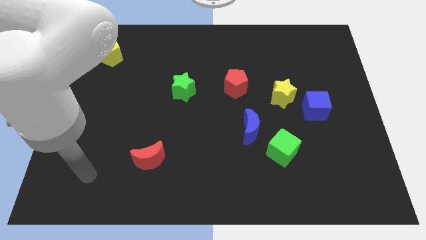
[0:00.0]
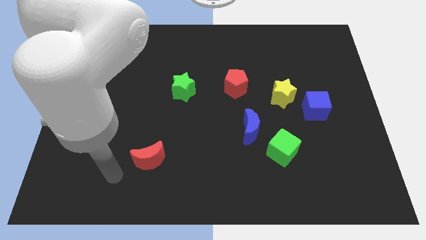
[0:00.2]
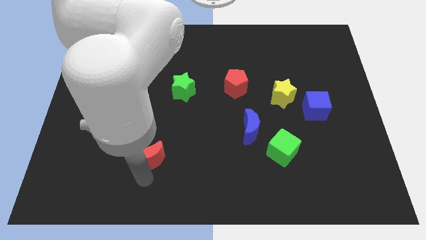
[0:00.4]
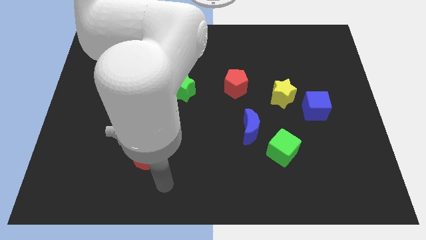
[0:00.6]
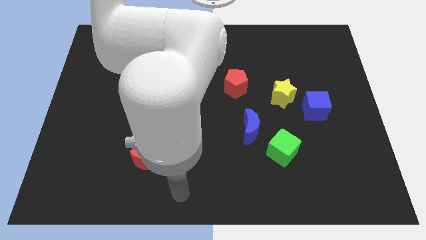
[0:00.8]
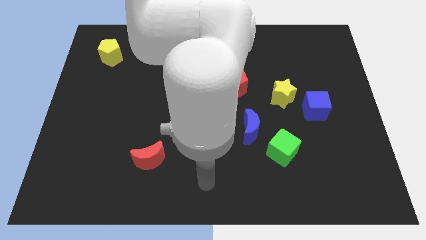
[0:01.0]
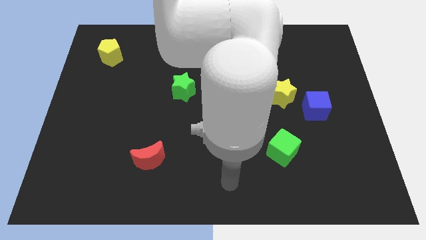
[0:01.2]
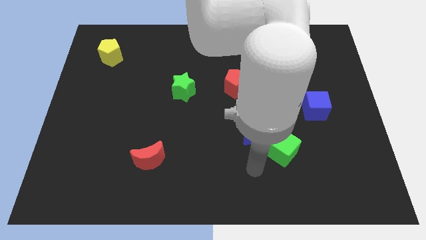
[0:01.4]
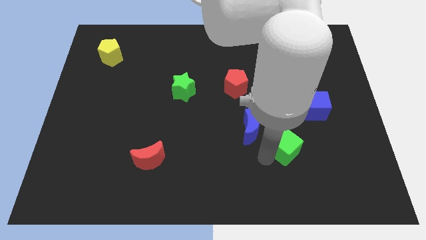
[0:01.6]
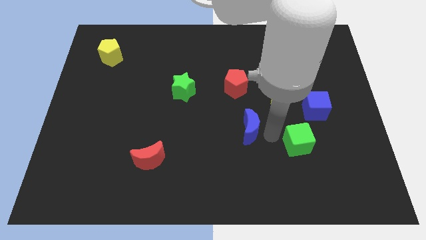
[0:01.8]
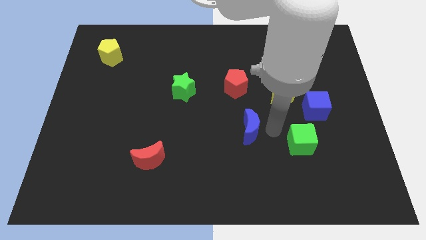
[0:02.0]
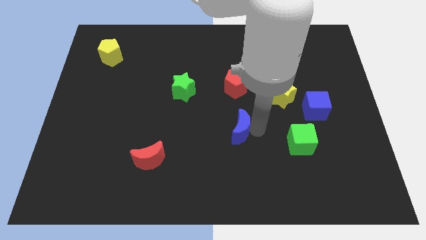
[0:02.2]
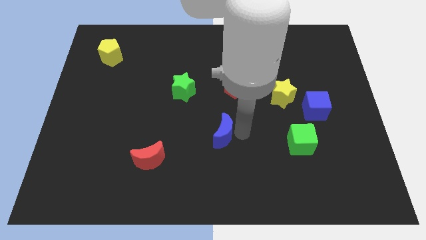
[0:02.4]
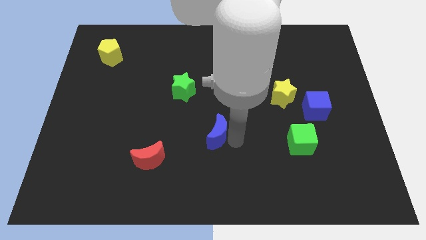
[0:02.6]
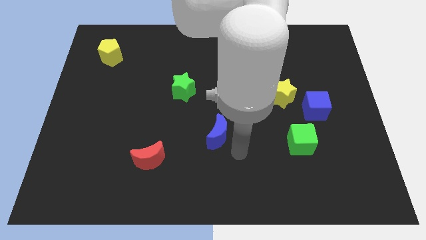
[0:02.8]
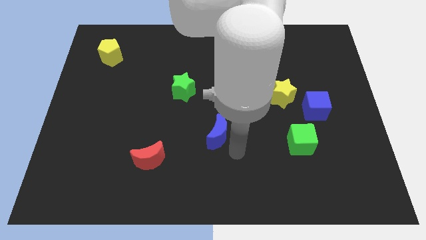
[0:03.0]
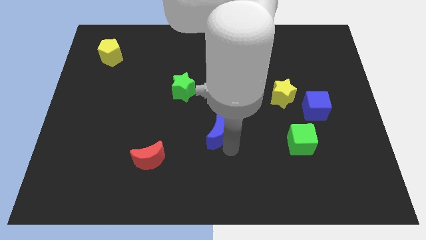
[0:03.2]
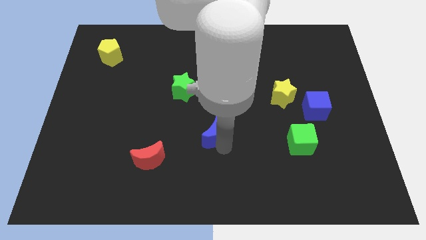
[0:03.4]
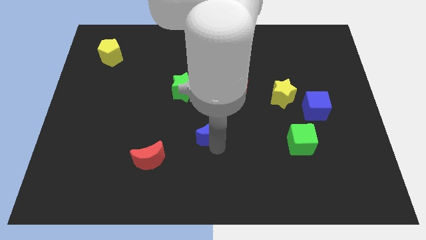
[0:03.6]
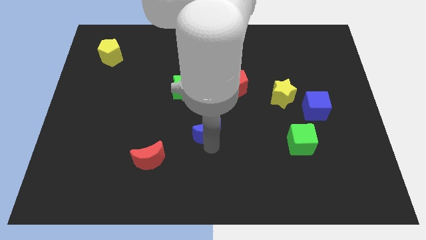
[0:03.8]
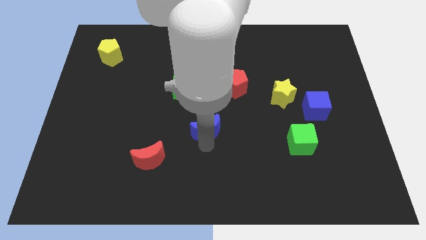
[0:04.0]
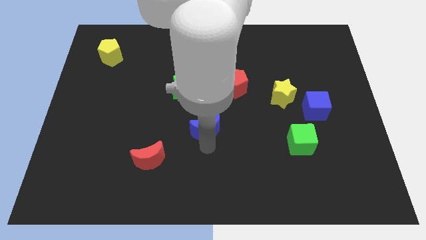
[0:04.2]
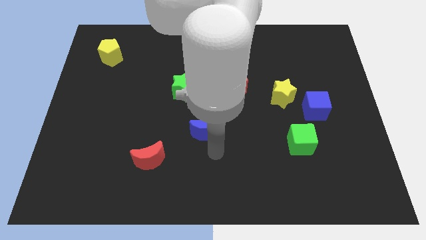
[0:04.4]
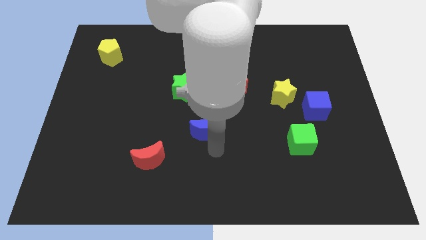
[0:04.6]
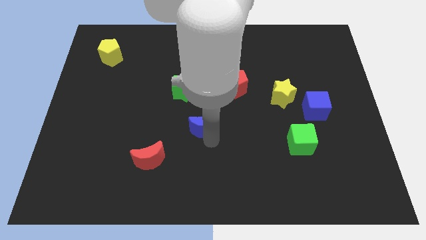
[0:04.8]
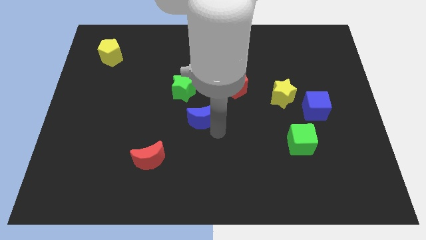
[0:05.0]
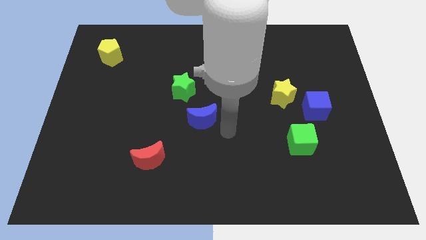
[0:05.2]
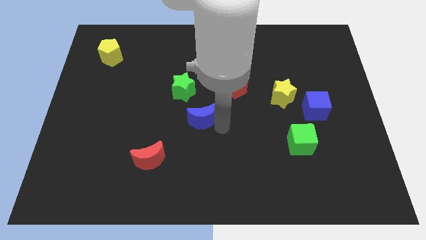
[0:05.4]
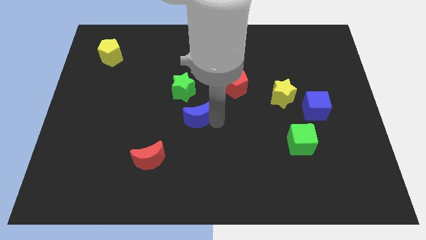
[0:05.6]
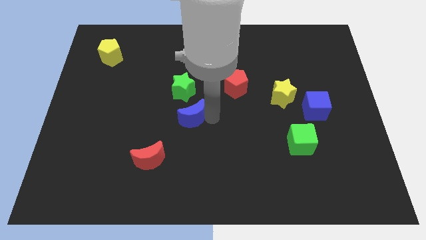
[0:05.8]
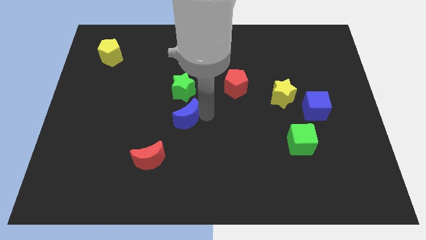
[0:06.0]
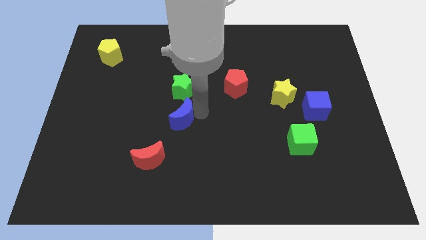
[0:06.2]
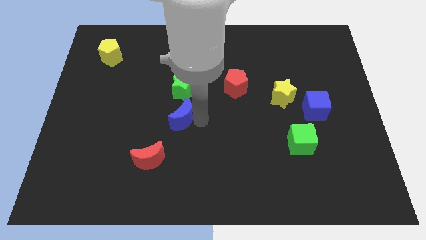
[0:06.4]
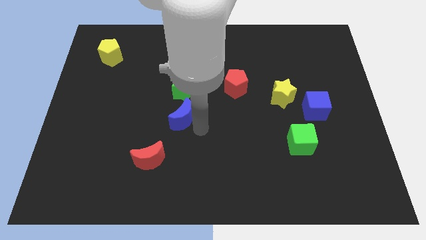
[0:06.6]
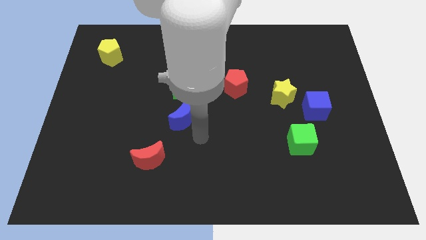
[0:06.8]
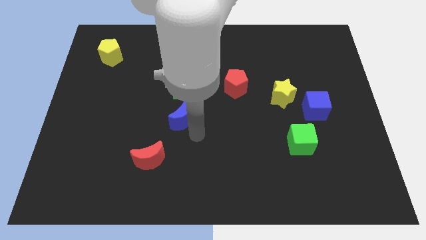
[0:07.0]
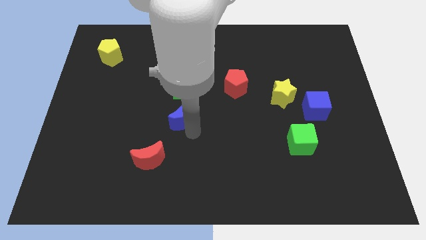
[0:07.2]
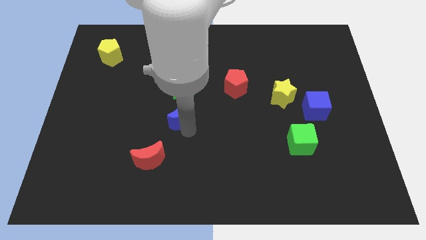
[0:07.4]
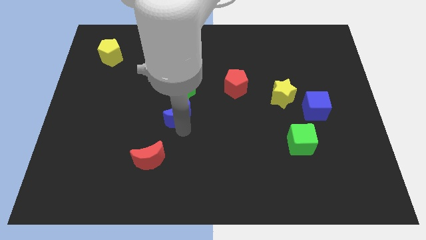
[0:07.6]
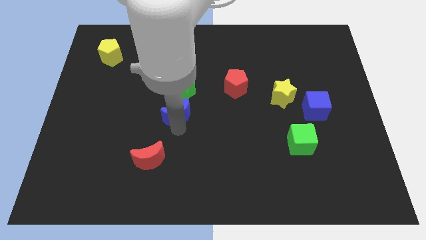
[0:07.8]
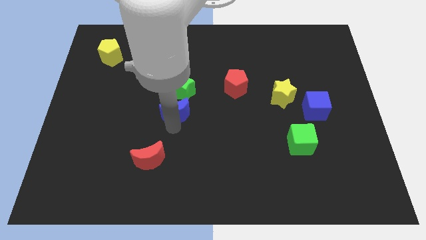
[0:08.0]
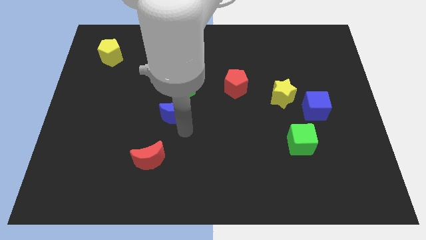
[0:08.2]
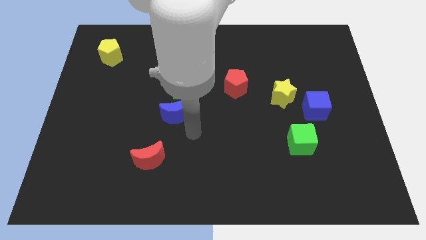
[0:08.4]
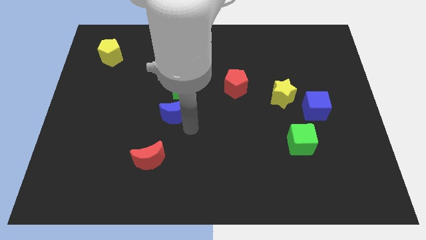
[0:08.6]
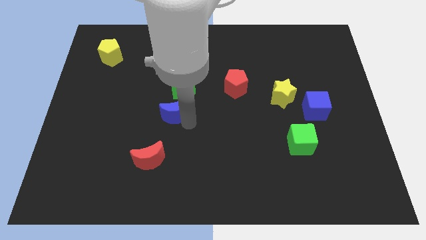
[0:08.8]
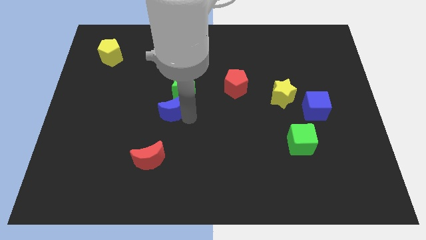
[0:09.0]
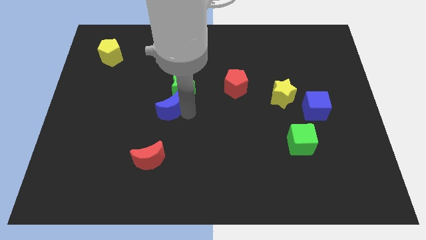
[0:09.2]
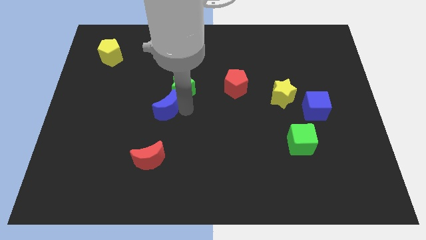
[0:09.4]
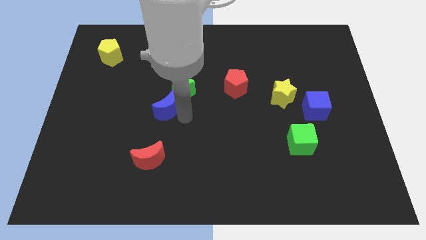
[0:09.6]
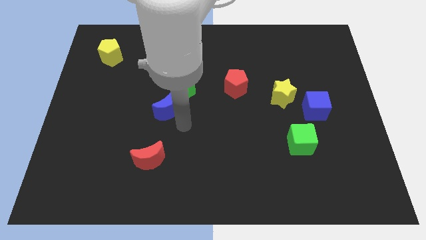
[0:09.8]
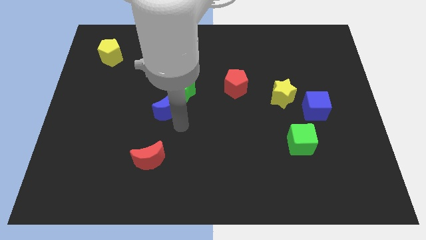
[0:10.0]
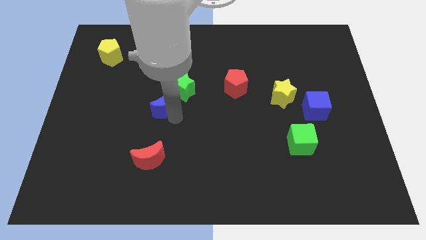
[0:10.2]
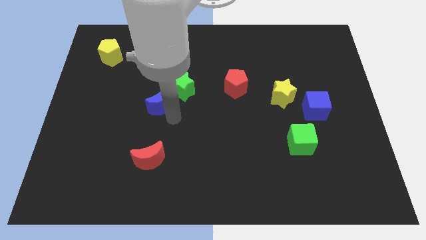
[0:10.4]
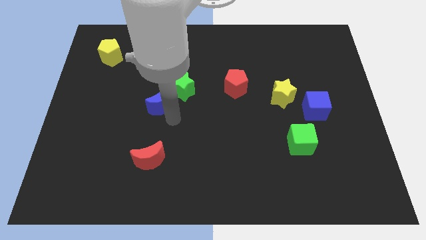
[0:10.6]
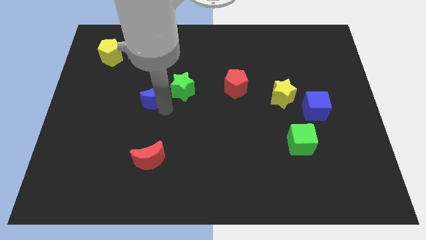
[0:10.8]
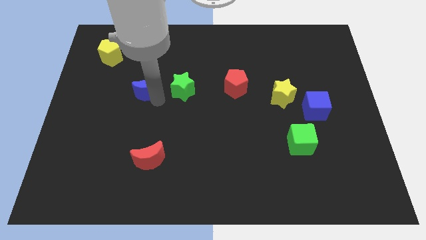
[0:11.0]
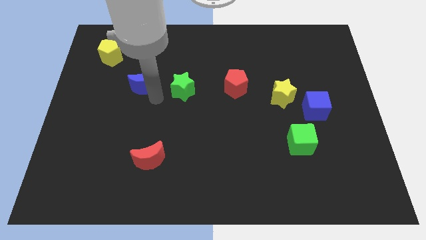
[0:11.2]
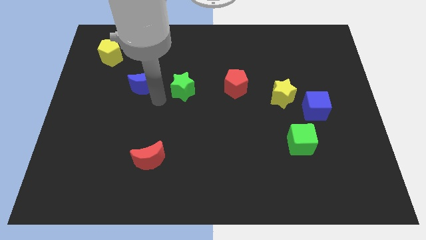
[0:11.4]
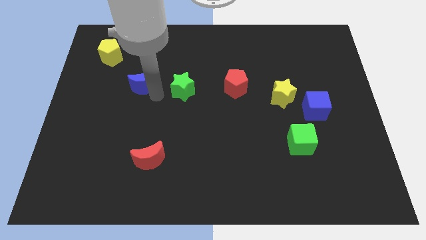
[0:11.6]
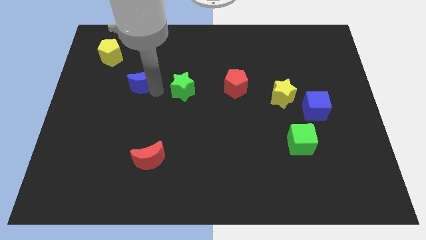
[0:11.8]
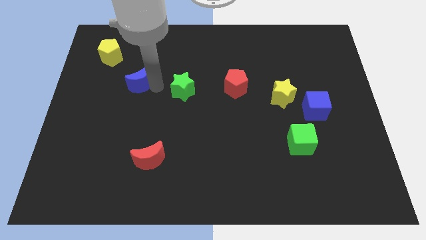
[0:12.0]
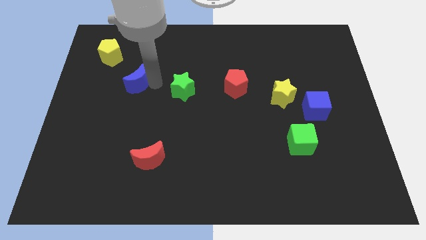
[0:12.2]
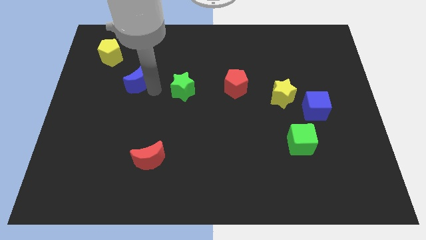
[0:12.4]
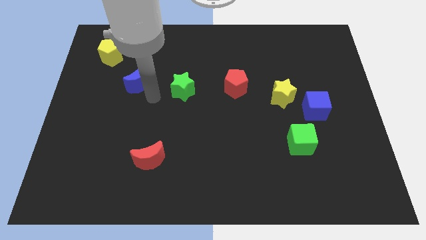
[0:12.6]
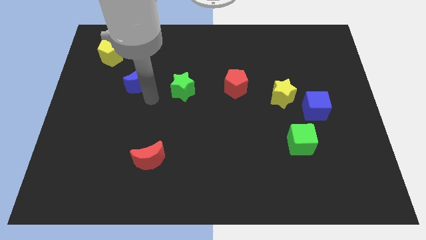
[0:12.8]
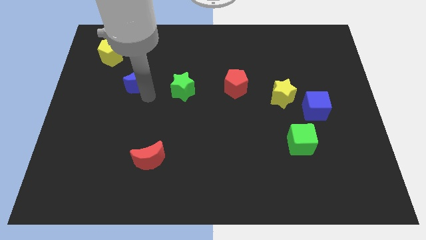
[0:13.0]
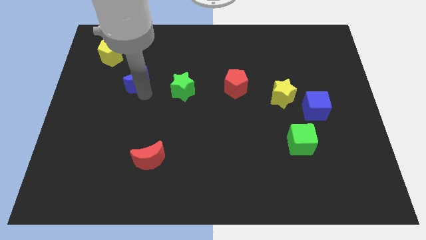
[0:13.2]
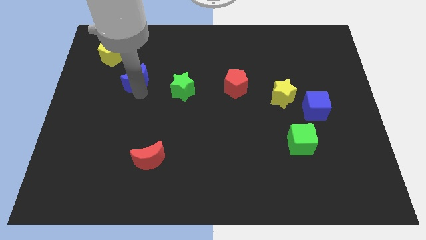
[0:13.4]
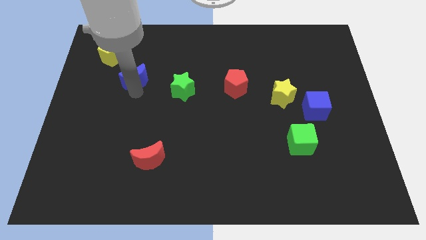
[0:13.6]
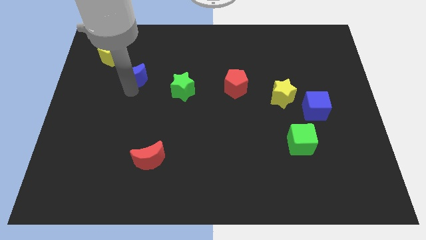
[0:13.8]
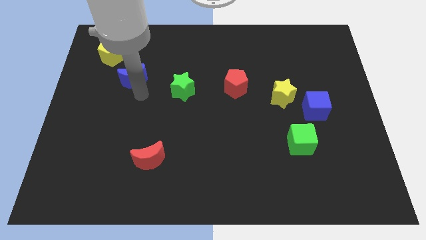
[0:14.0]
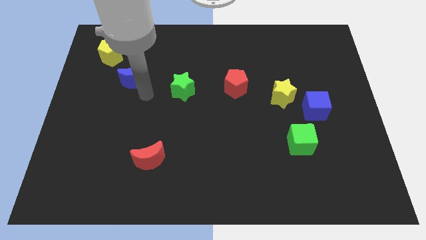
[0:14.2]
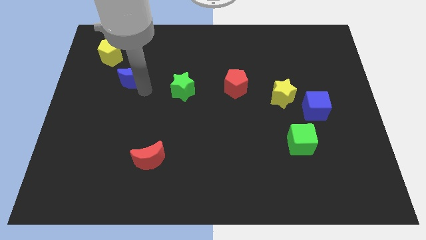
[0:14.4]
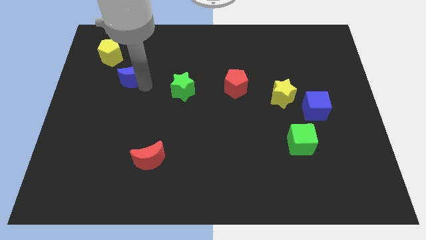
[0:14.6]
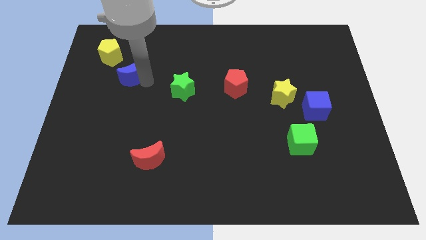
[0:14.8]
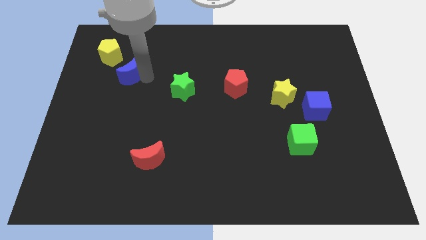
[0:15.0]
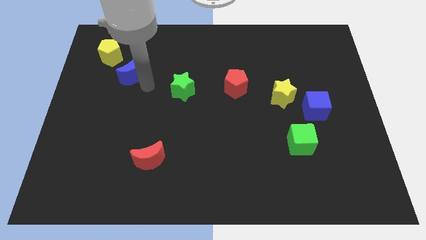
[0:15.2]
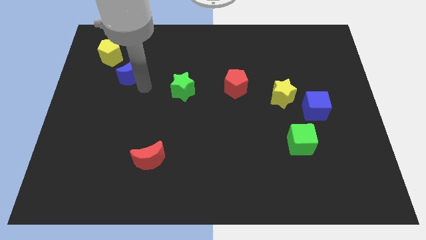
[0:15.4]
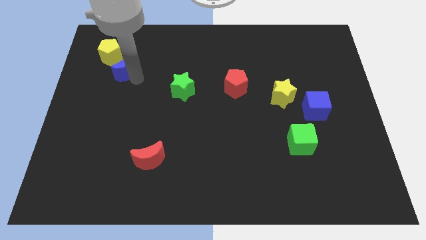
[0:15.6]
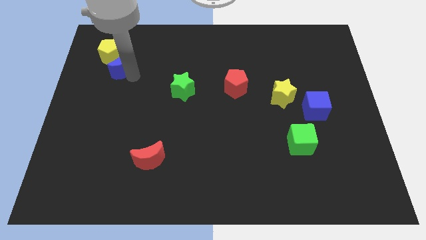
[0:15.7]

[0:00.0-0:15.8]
move the blue moon close to the yellow pentagon
